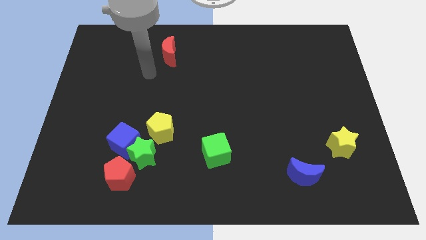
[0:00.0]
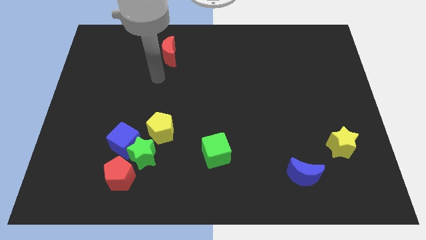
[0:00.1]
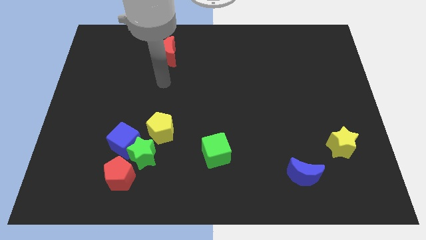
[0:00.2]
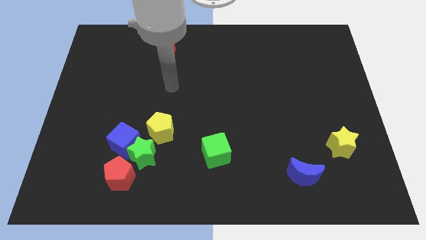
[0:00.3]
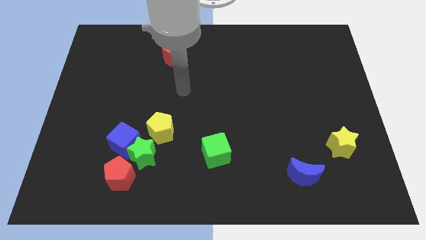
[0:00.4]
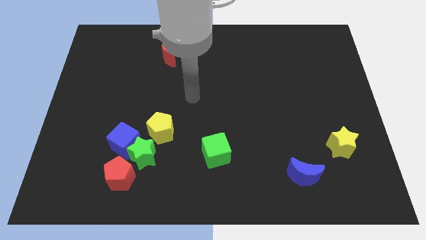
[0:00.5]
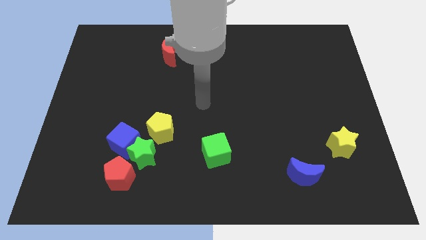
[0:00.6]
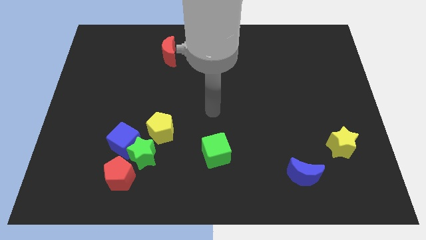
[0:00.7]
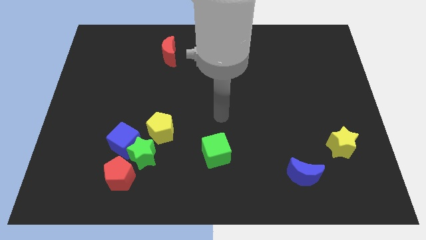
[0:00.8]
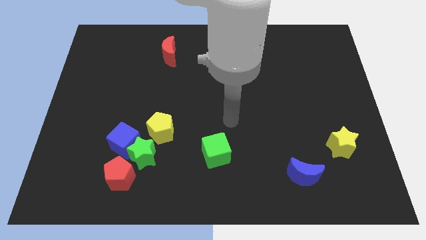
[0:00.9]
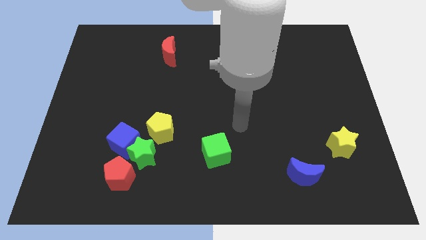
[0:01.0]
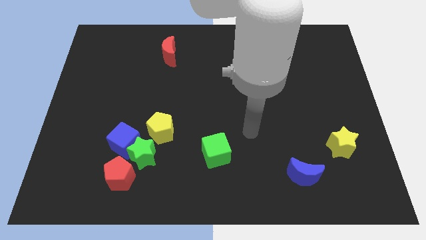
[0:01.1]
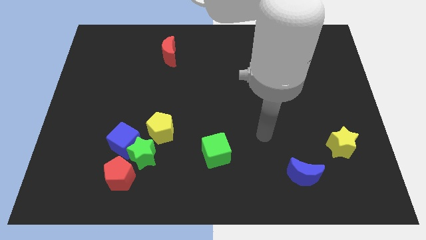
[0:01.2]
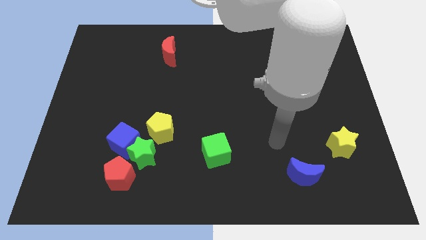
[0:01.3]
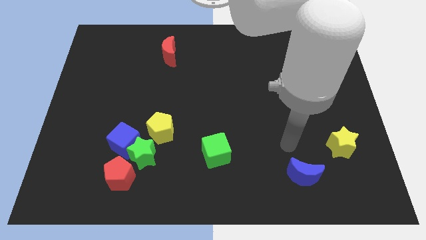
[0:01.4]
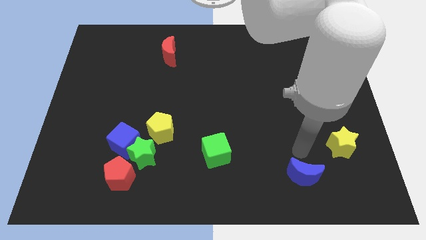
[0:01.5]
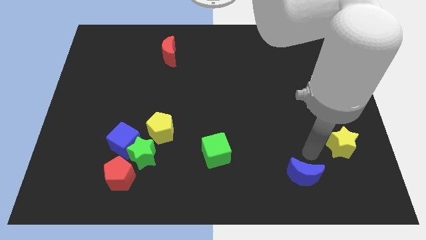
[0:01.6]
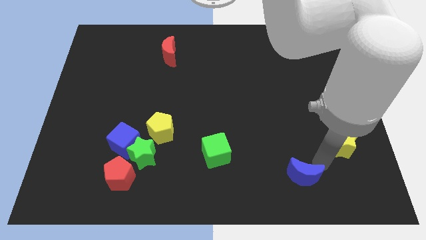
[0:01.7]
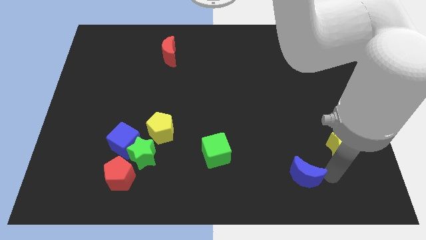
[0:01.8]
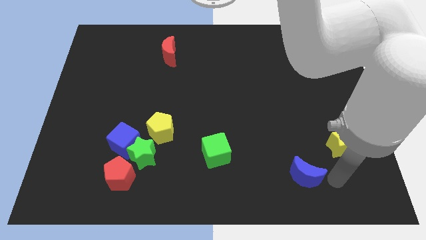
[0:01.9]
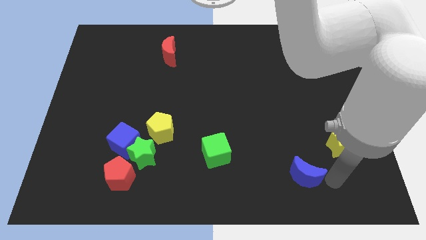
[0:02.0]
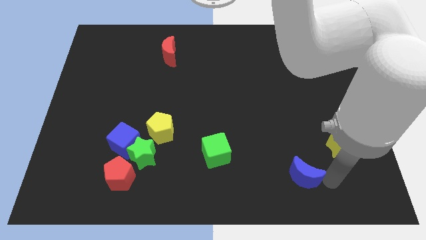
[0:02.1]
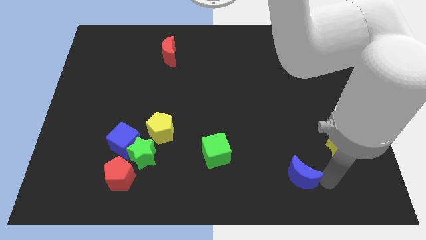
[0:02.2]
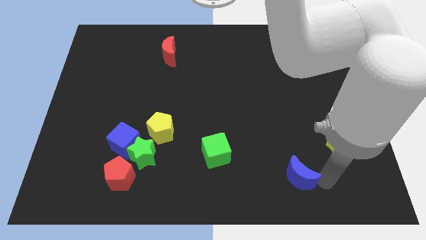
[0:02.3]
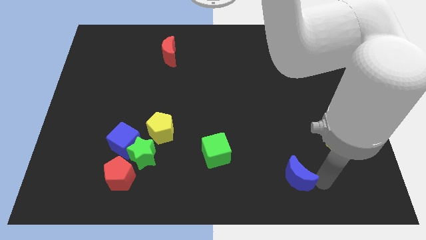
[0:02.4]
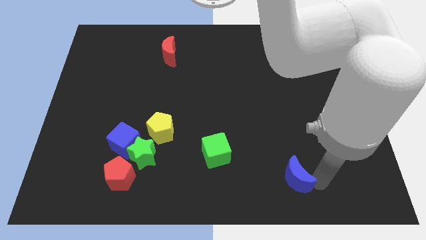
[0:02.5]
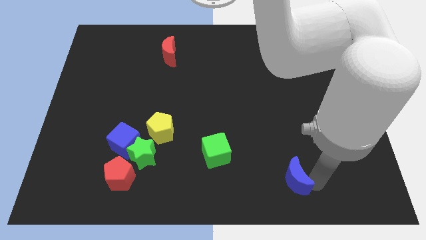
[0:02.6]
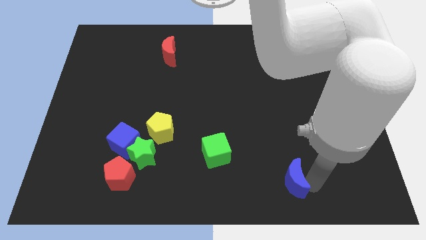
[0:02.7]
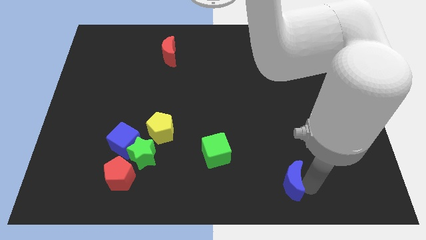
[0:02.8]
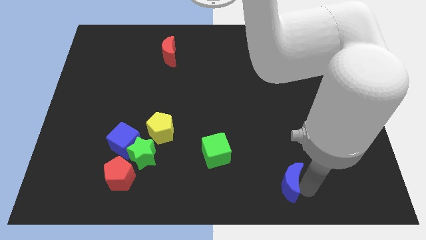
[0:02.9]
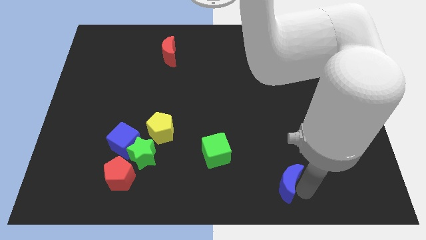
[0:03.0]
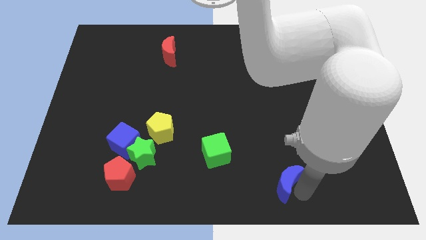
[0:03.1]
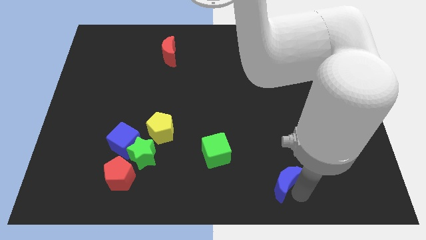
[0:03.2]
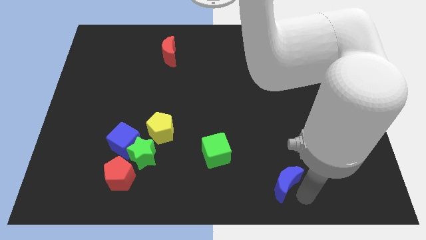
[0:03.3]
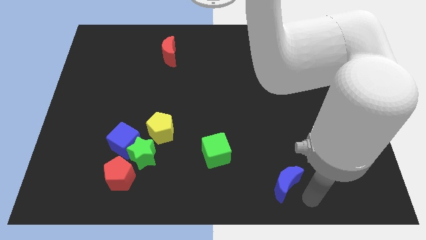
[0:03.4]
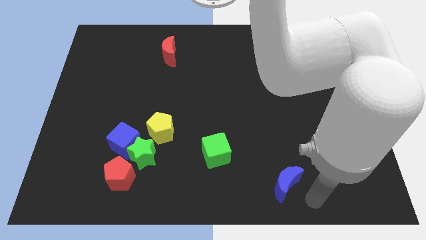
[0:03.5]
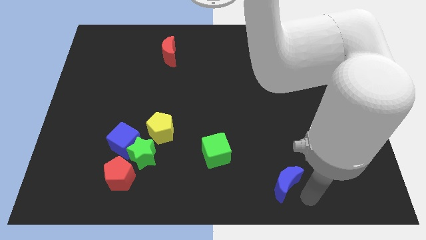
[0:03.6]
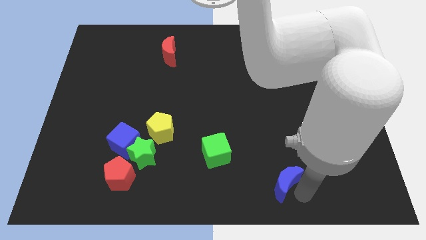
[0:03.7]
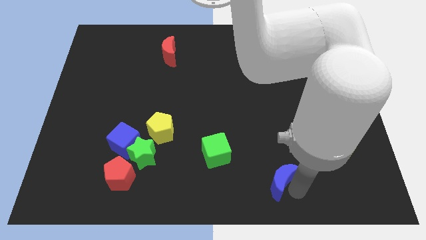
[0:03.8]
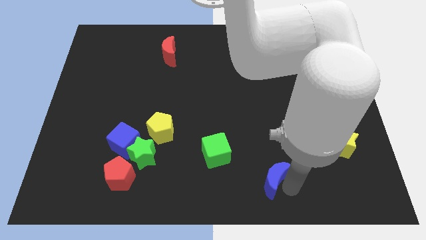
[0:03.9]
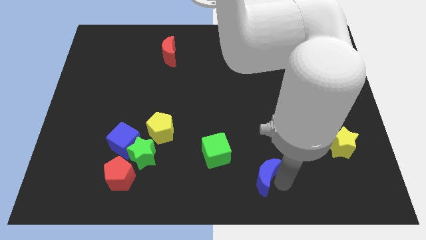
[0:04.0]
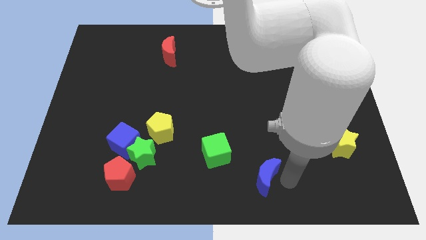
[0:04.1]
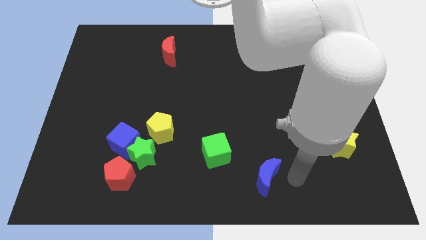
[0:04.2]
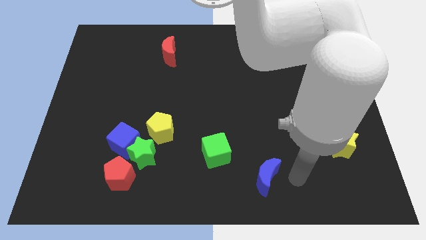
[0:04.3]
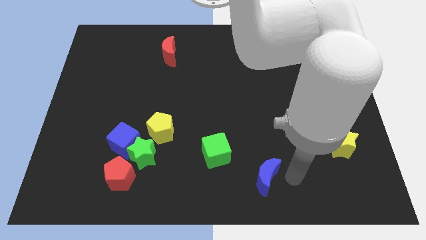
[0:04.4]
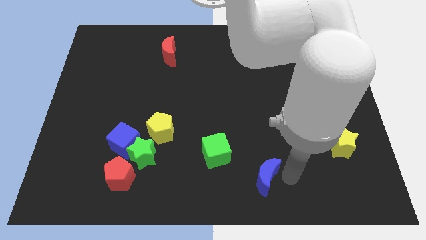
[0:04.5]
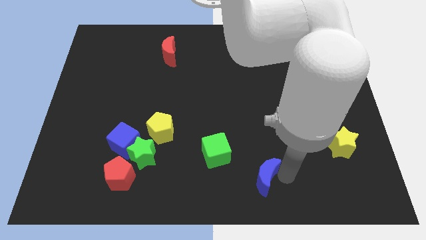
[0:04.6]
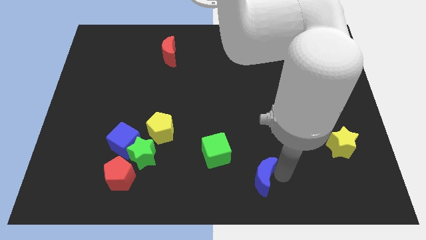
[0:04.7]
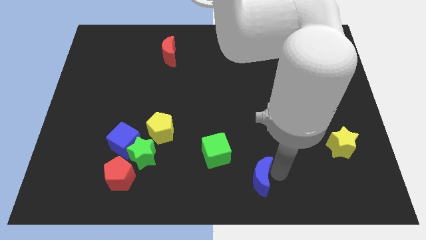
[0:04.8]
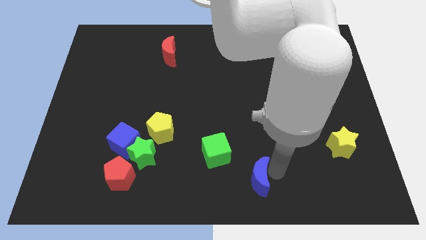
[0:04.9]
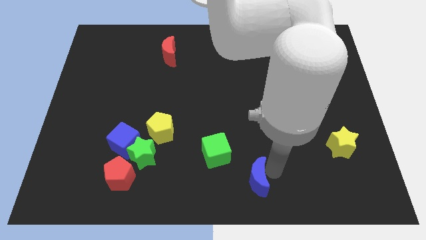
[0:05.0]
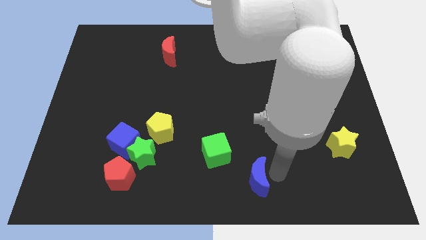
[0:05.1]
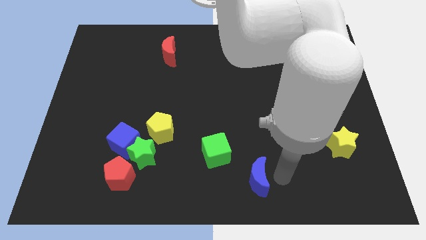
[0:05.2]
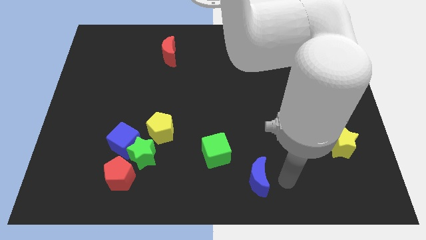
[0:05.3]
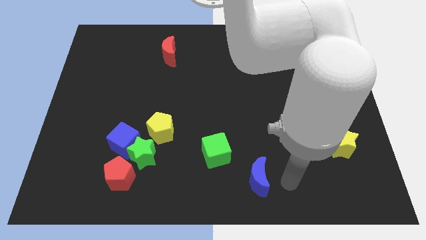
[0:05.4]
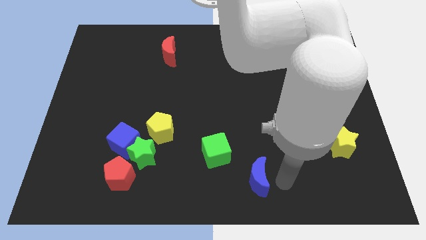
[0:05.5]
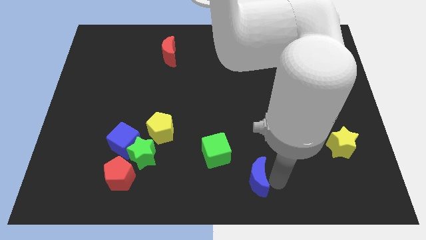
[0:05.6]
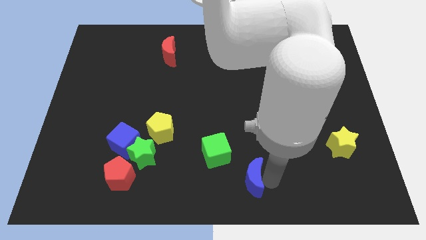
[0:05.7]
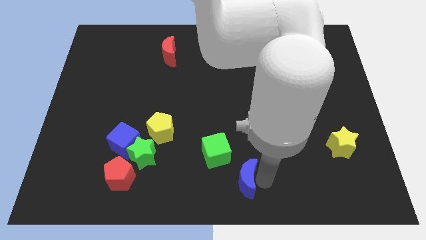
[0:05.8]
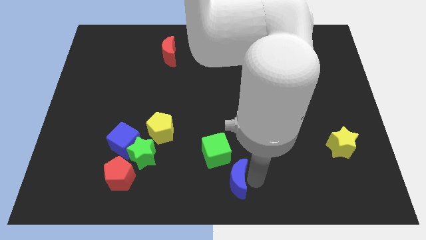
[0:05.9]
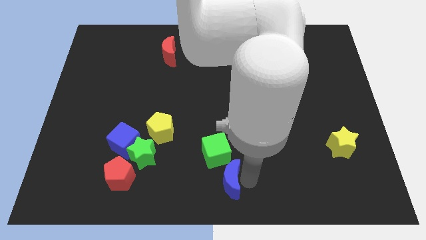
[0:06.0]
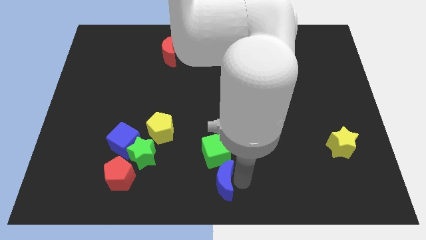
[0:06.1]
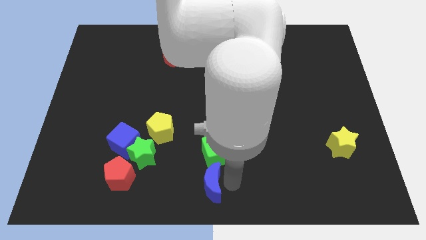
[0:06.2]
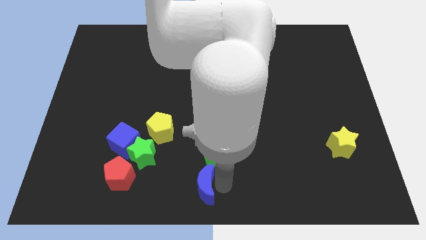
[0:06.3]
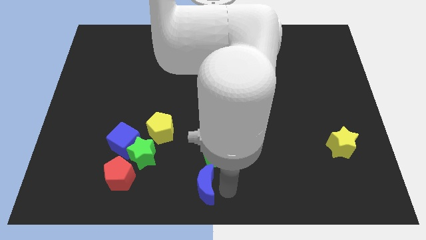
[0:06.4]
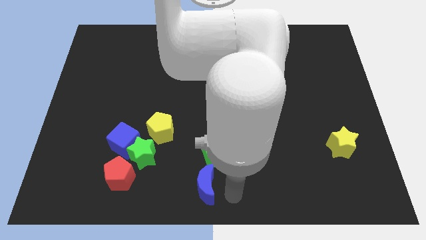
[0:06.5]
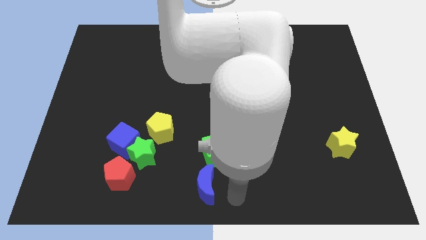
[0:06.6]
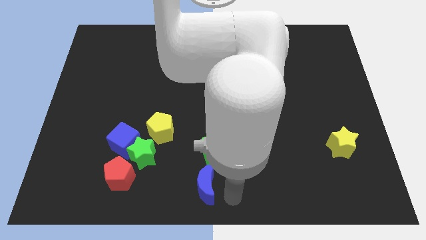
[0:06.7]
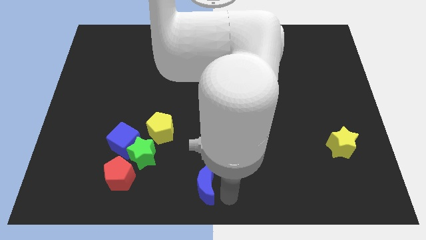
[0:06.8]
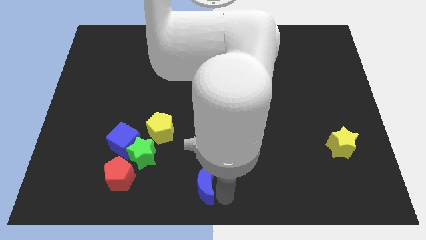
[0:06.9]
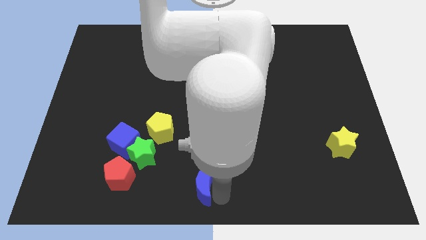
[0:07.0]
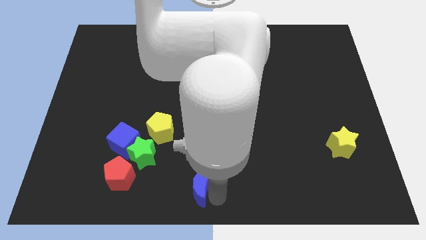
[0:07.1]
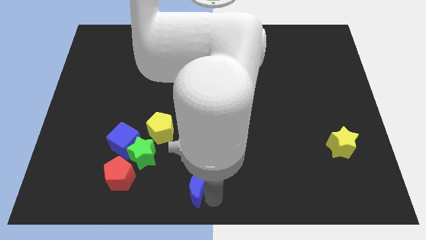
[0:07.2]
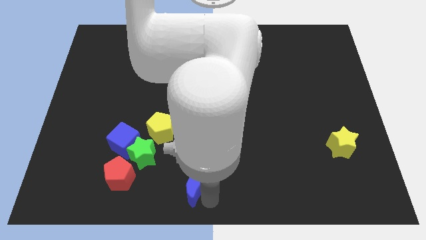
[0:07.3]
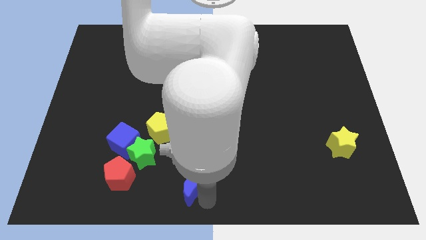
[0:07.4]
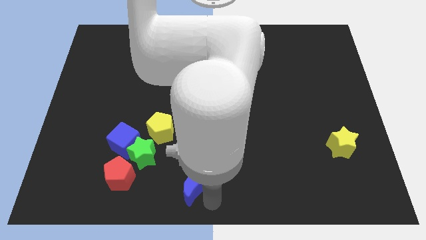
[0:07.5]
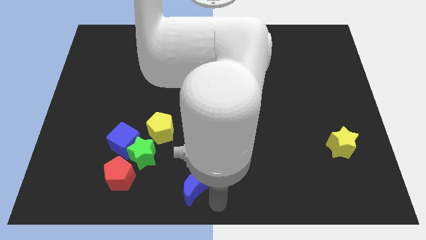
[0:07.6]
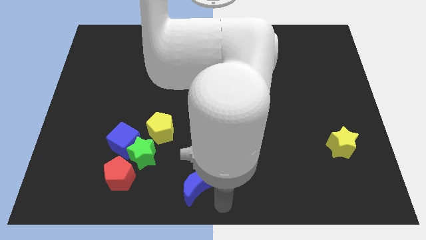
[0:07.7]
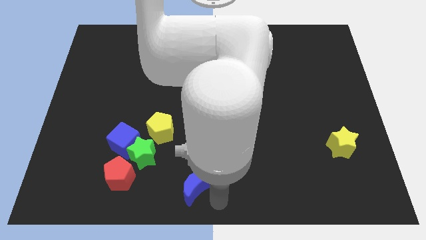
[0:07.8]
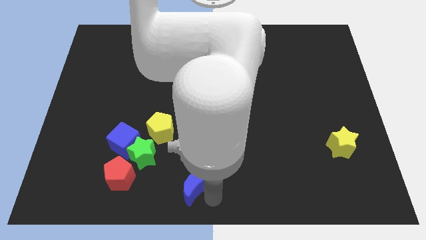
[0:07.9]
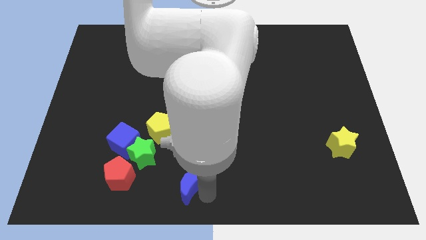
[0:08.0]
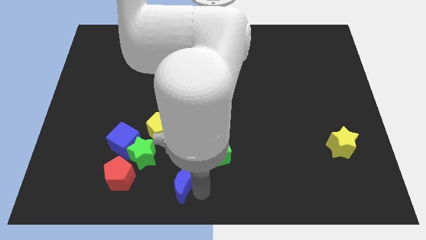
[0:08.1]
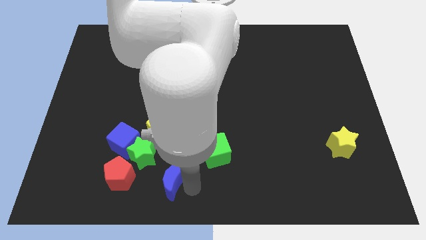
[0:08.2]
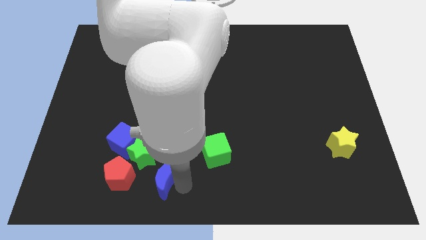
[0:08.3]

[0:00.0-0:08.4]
push the blue moon to the bottom right side of the blue cube
